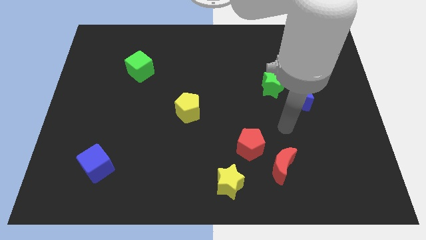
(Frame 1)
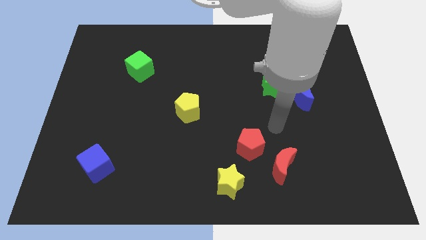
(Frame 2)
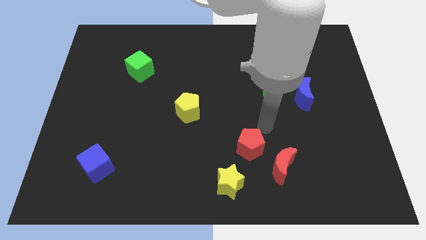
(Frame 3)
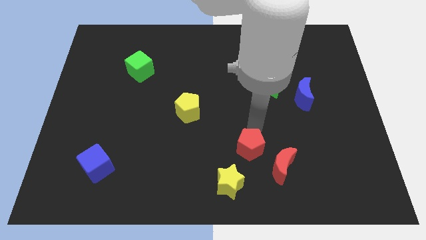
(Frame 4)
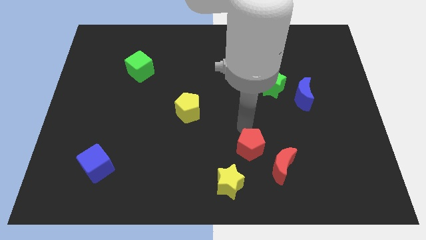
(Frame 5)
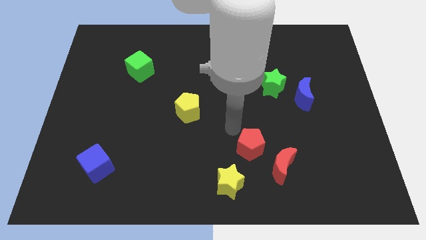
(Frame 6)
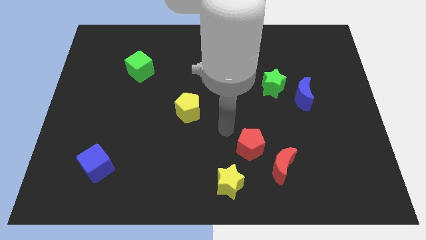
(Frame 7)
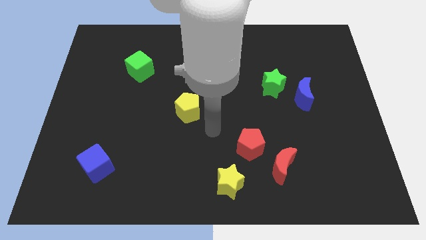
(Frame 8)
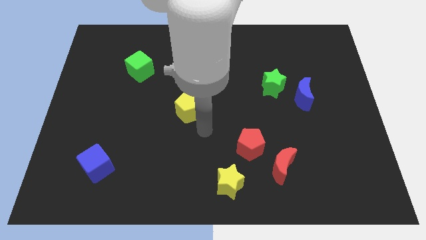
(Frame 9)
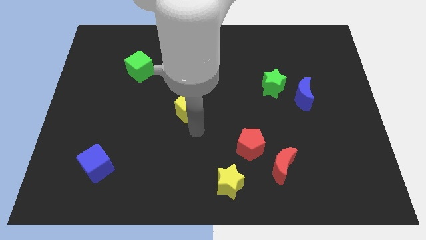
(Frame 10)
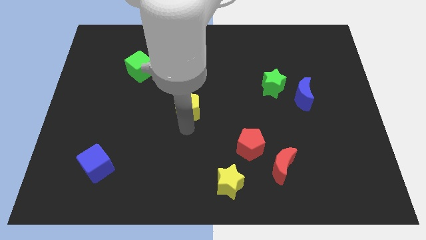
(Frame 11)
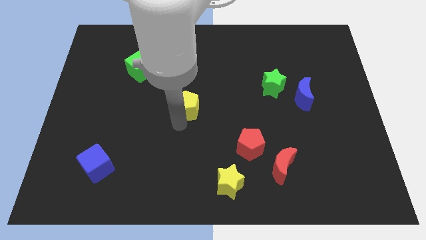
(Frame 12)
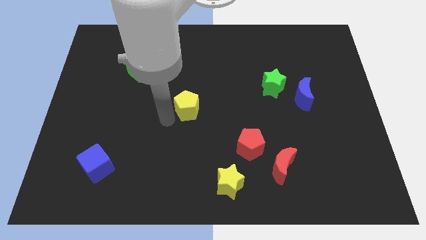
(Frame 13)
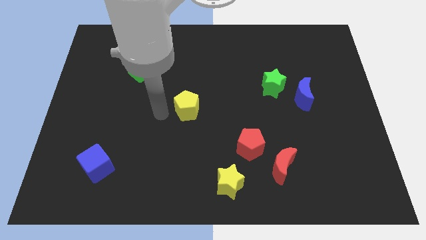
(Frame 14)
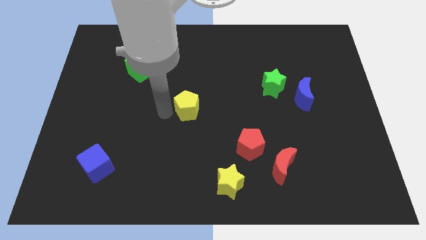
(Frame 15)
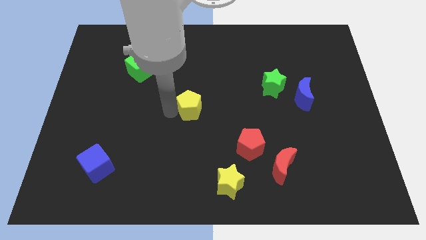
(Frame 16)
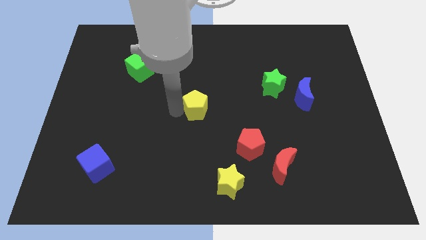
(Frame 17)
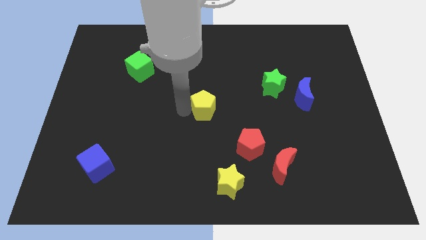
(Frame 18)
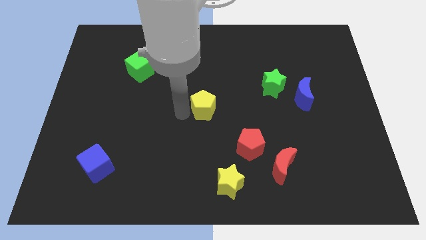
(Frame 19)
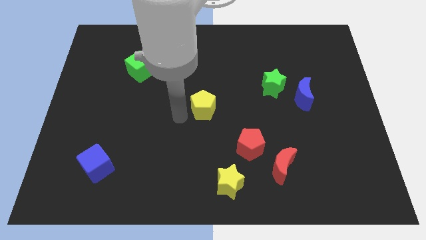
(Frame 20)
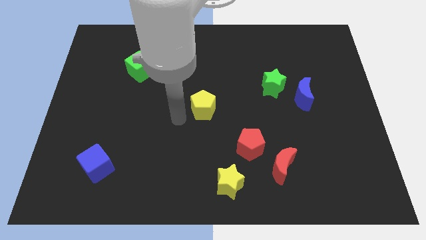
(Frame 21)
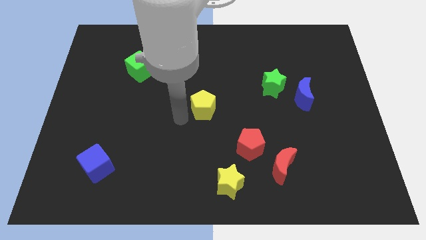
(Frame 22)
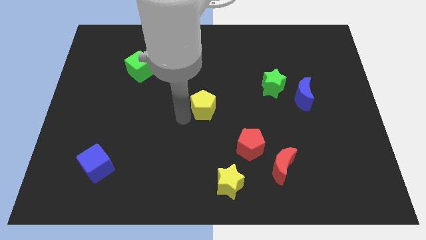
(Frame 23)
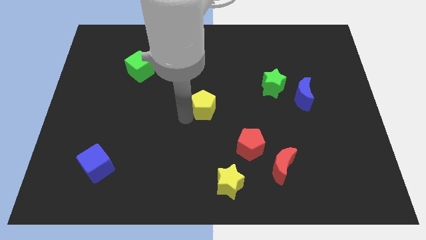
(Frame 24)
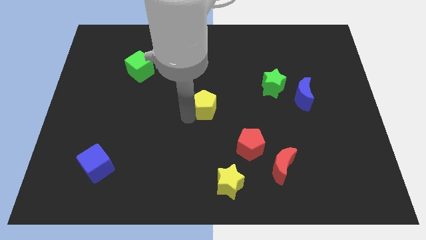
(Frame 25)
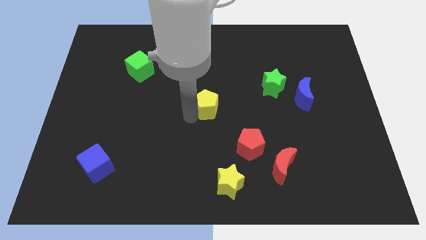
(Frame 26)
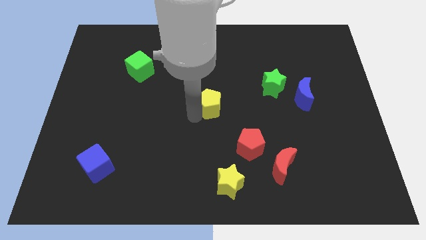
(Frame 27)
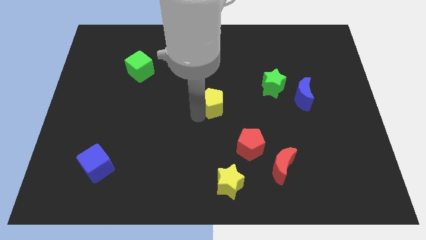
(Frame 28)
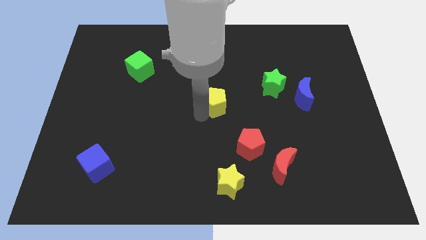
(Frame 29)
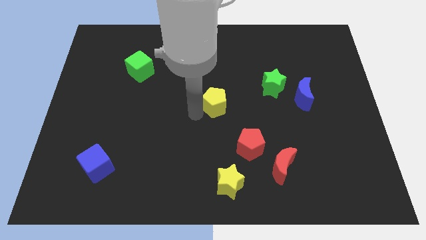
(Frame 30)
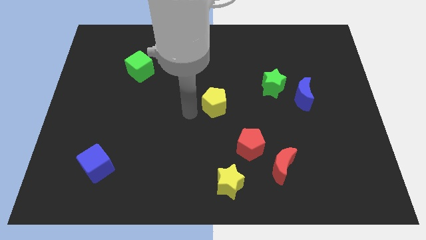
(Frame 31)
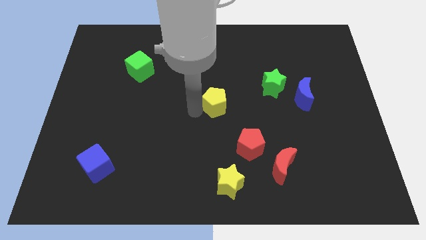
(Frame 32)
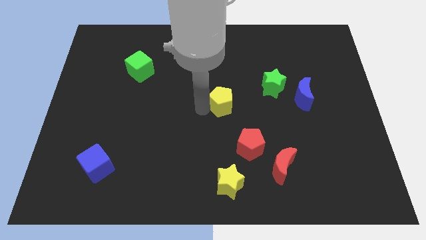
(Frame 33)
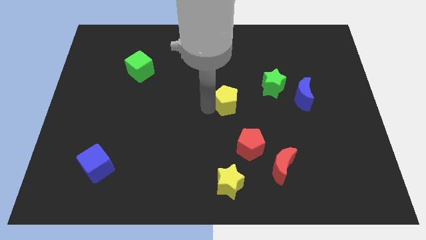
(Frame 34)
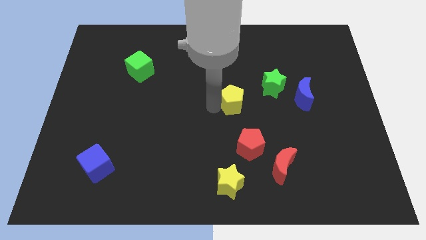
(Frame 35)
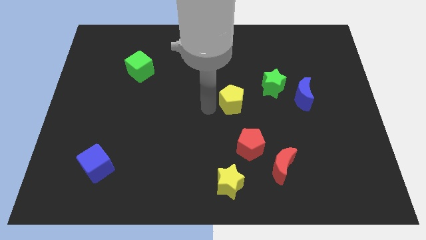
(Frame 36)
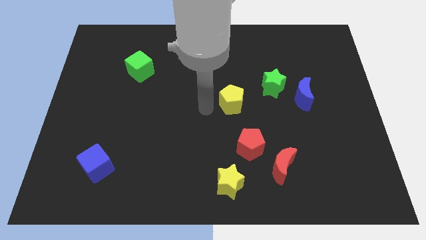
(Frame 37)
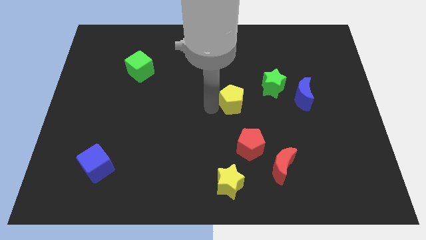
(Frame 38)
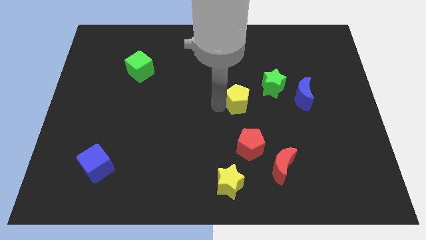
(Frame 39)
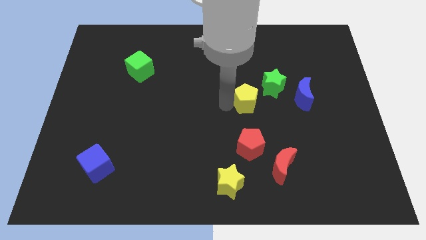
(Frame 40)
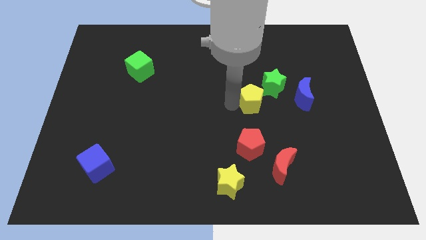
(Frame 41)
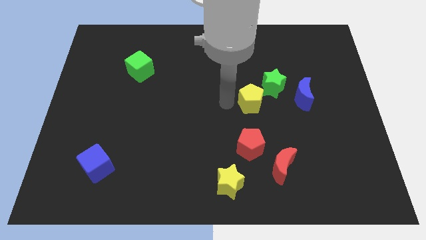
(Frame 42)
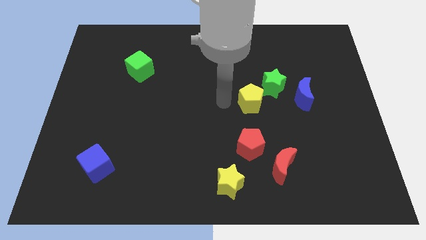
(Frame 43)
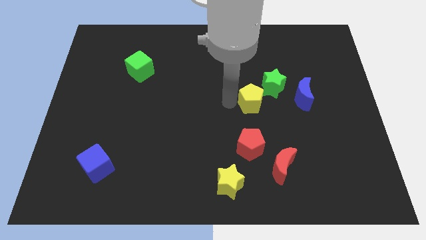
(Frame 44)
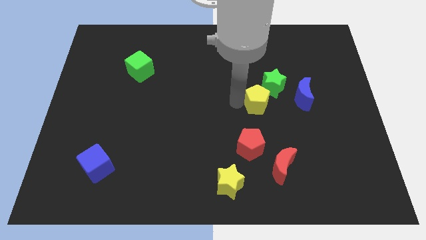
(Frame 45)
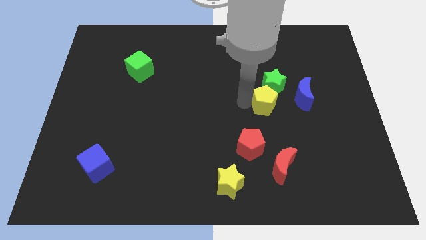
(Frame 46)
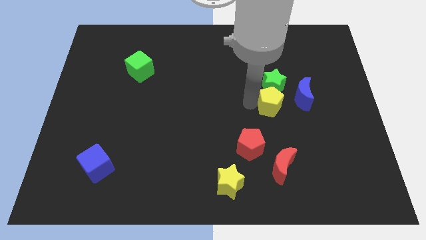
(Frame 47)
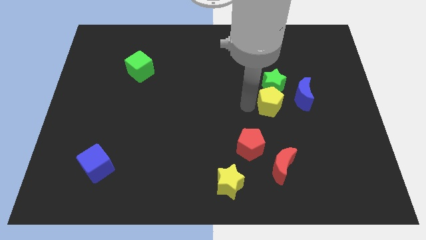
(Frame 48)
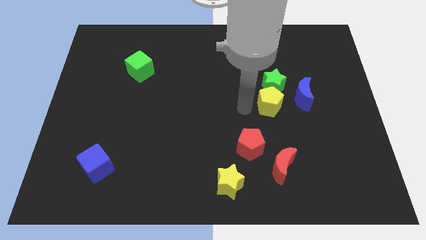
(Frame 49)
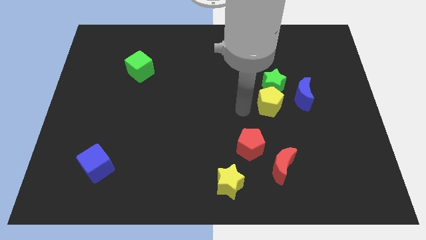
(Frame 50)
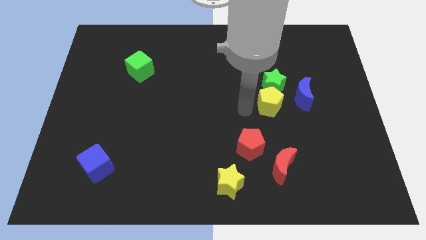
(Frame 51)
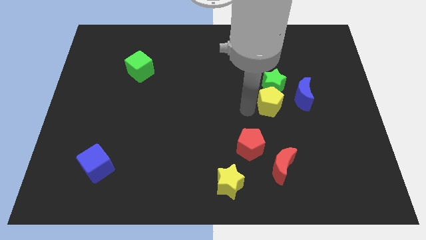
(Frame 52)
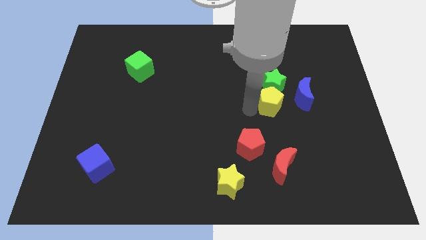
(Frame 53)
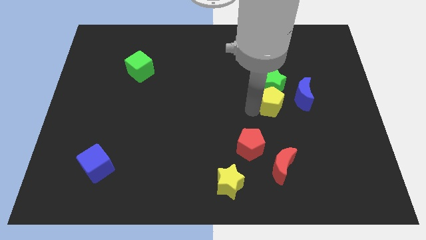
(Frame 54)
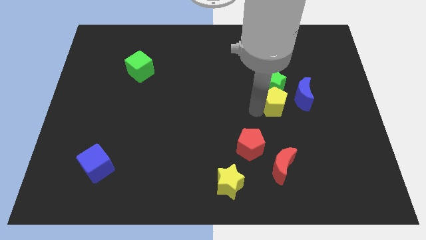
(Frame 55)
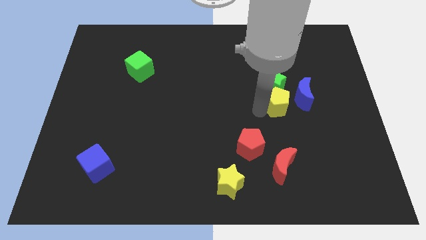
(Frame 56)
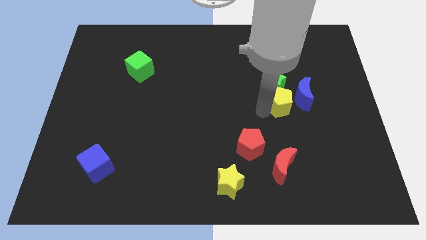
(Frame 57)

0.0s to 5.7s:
move the yellow pentagon next to the blue moon

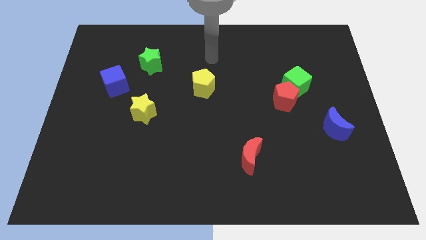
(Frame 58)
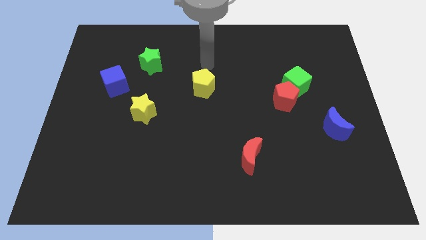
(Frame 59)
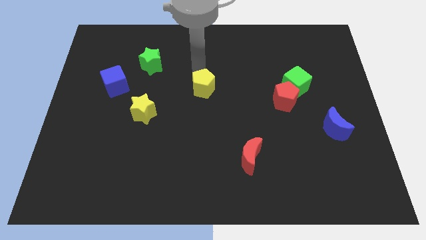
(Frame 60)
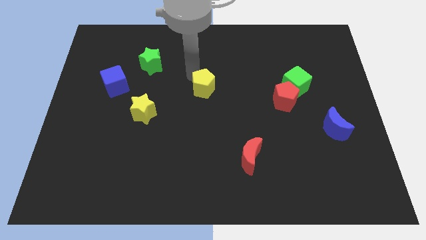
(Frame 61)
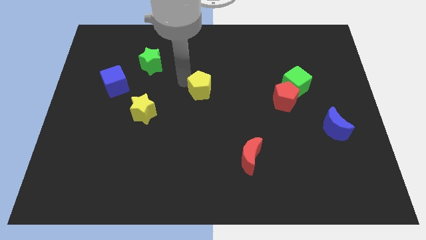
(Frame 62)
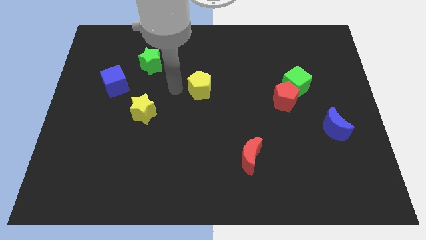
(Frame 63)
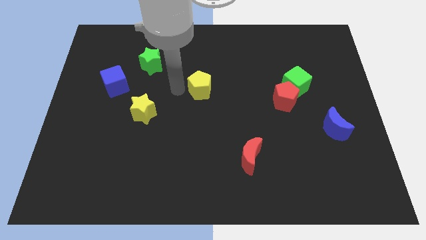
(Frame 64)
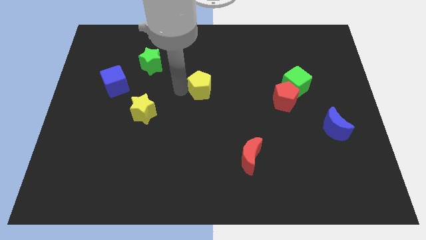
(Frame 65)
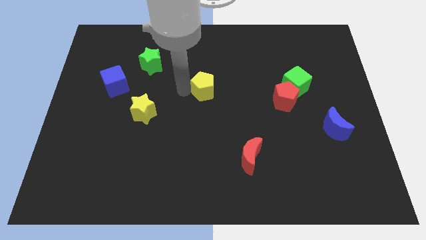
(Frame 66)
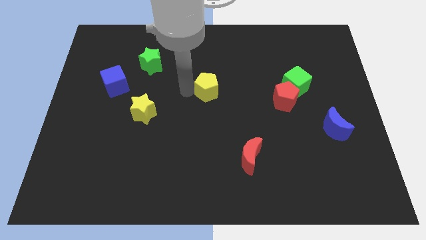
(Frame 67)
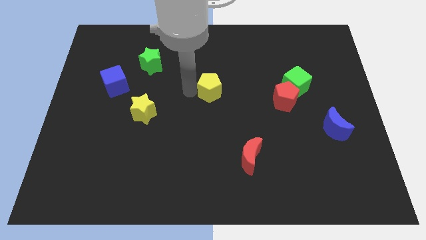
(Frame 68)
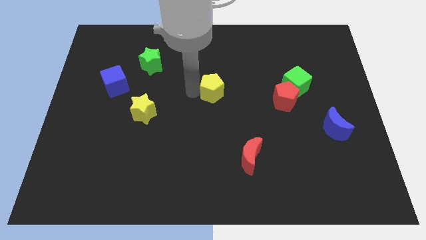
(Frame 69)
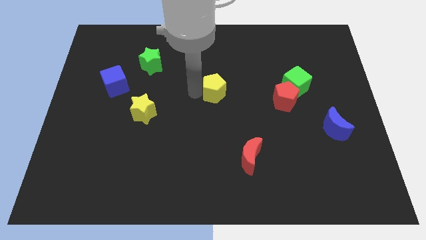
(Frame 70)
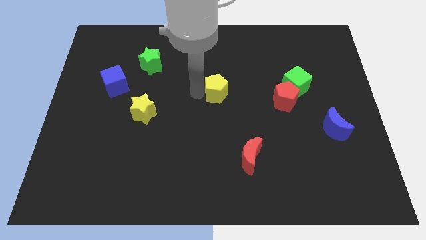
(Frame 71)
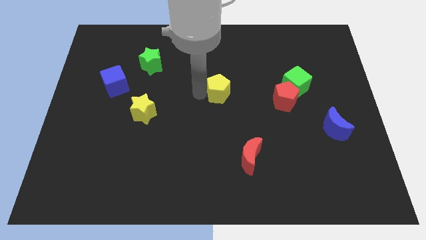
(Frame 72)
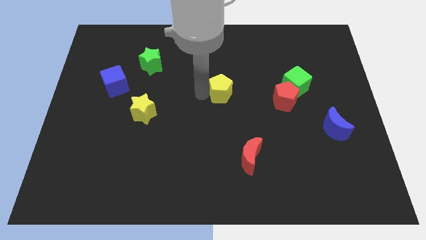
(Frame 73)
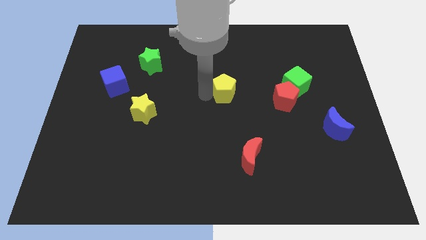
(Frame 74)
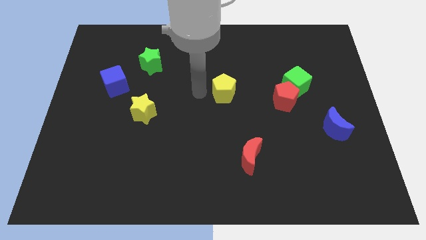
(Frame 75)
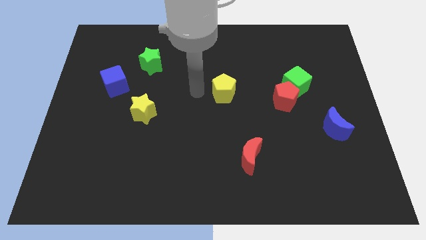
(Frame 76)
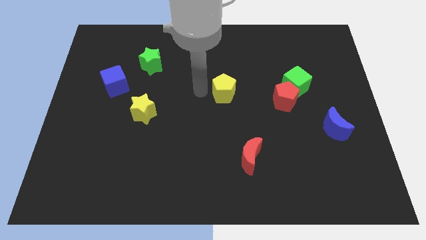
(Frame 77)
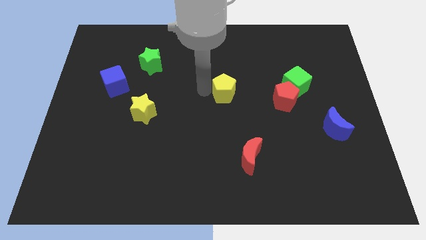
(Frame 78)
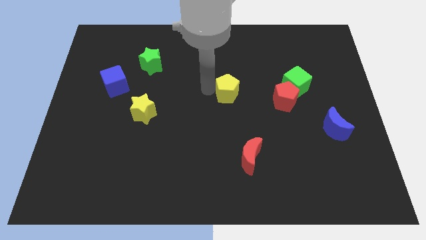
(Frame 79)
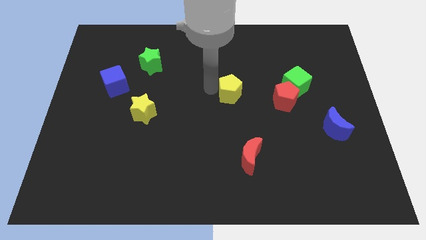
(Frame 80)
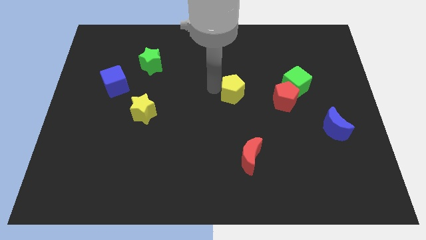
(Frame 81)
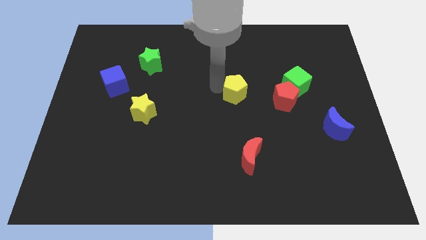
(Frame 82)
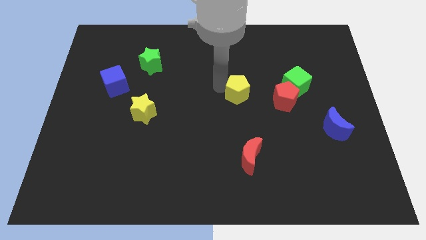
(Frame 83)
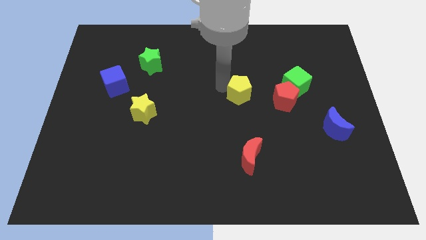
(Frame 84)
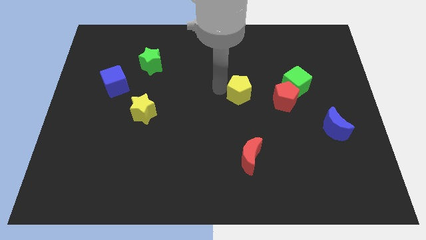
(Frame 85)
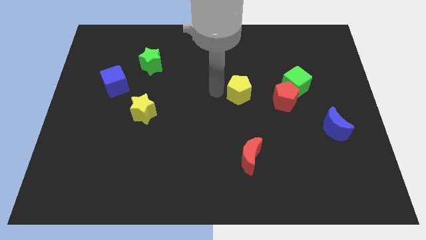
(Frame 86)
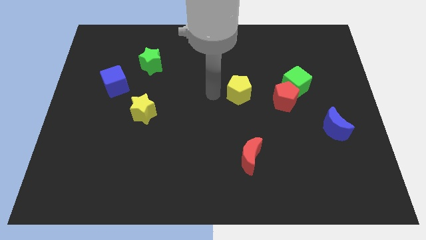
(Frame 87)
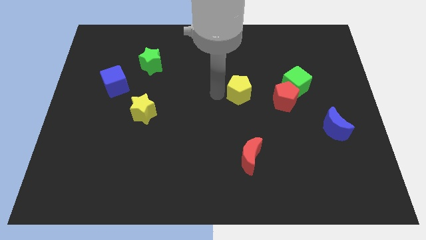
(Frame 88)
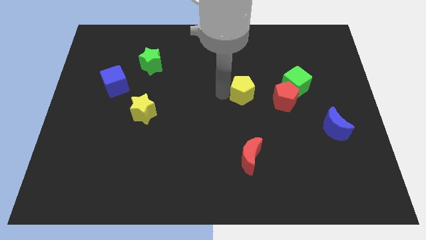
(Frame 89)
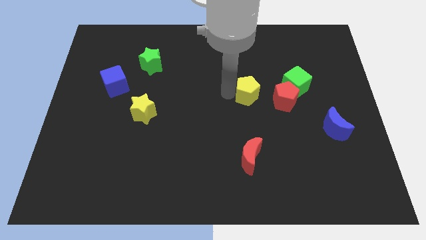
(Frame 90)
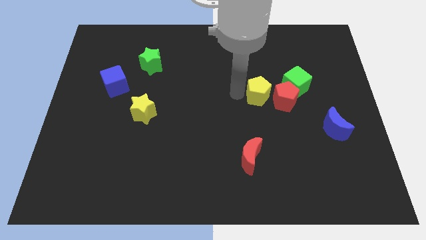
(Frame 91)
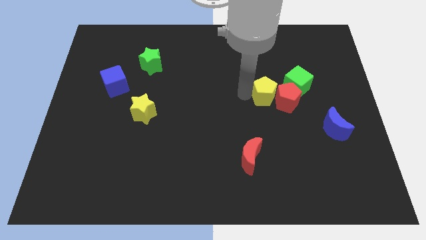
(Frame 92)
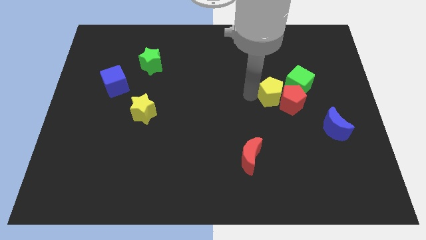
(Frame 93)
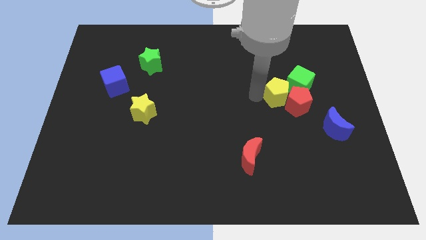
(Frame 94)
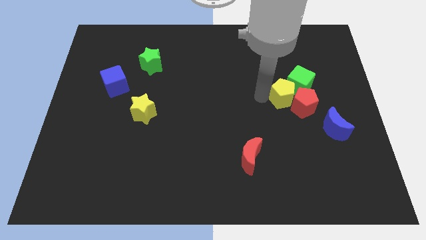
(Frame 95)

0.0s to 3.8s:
put the yellow pentagon towards the green cube
